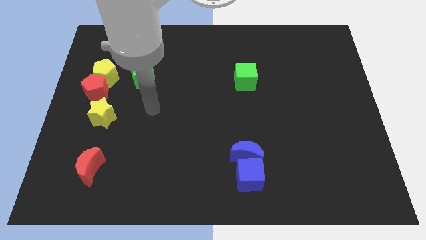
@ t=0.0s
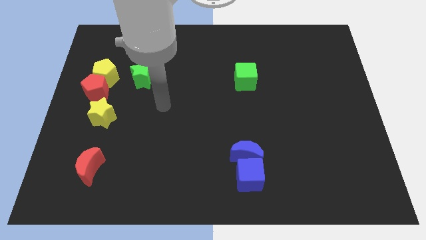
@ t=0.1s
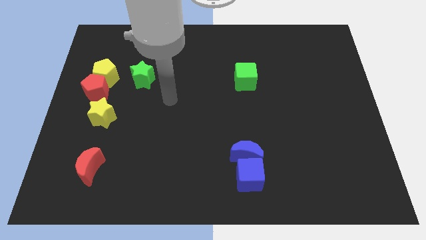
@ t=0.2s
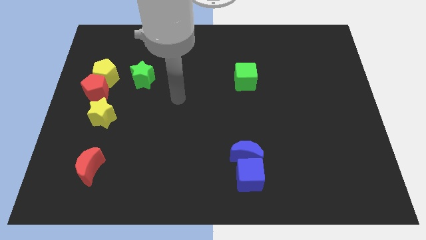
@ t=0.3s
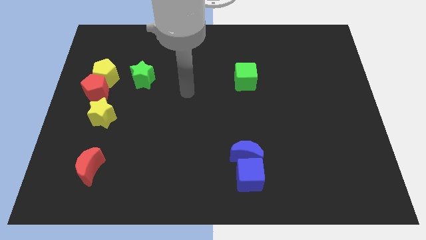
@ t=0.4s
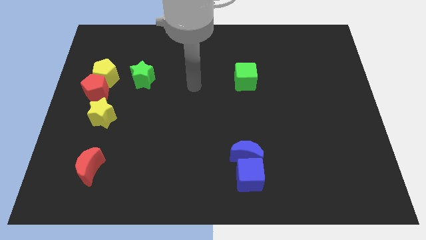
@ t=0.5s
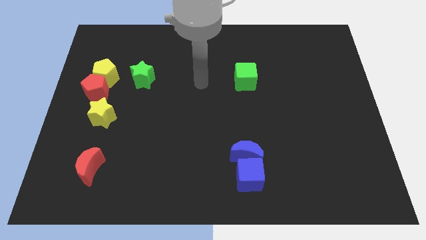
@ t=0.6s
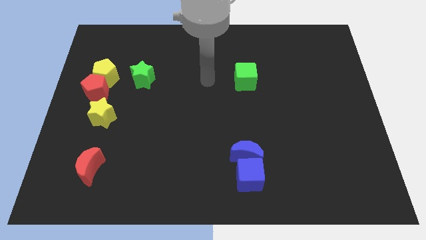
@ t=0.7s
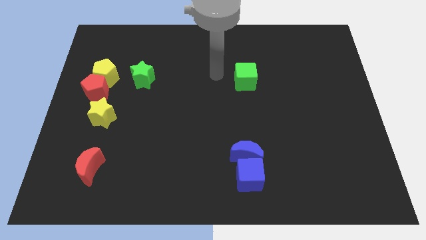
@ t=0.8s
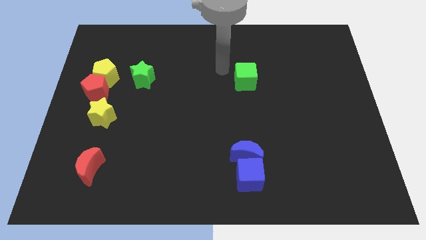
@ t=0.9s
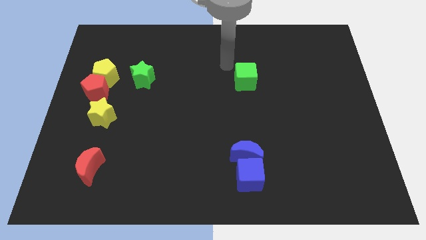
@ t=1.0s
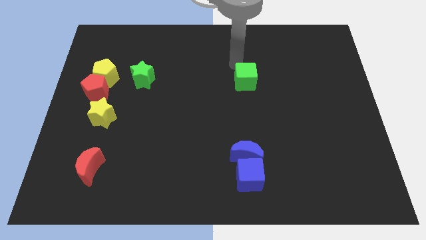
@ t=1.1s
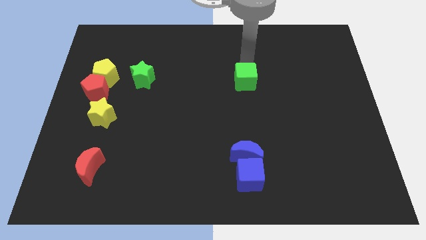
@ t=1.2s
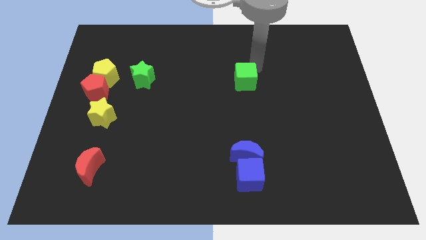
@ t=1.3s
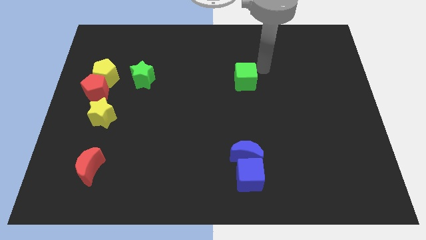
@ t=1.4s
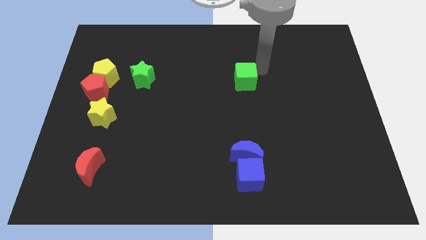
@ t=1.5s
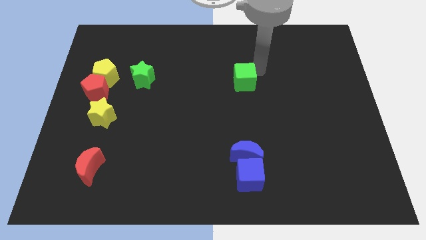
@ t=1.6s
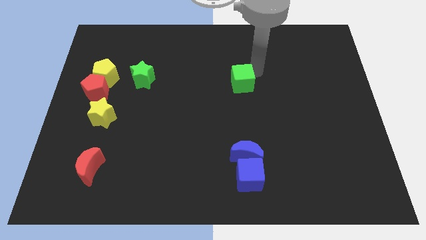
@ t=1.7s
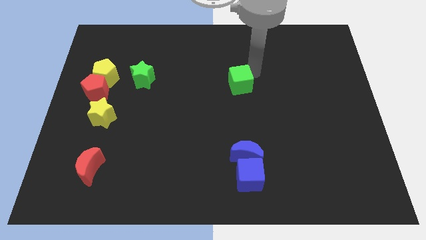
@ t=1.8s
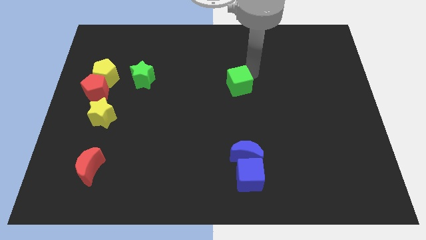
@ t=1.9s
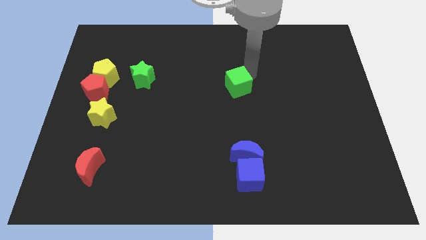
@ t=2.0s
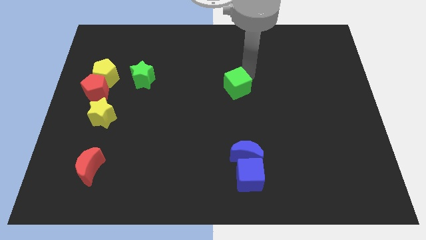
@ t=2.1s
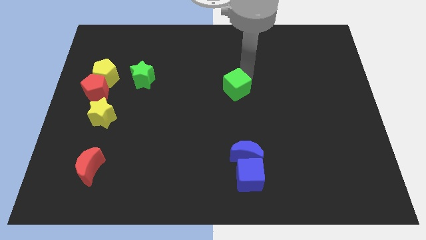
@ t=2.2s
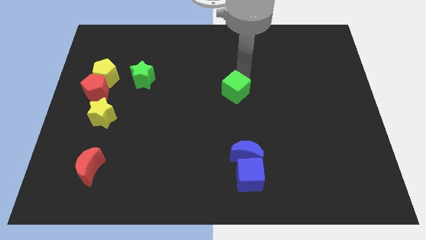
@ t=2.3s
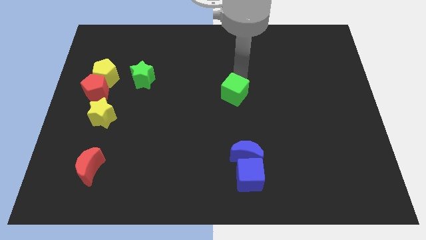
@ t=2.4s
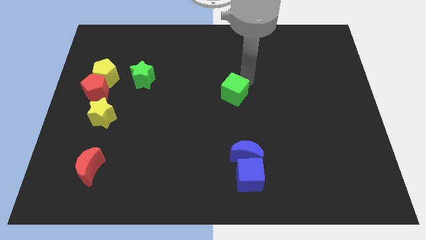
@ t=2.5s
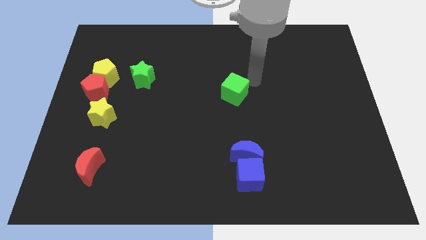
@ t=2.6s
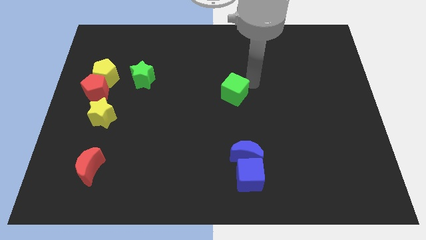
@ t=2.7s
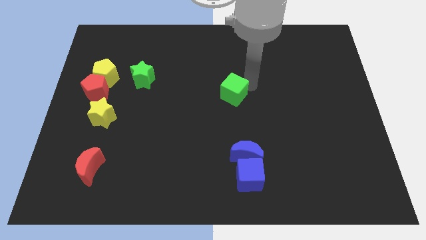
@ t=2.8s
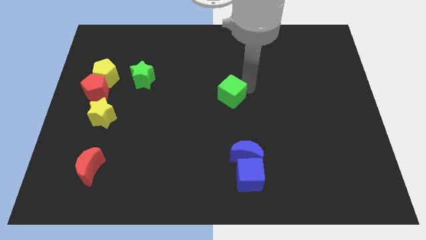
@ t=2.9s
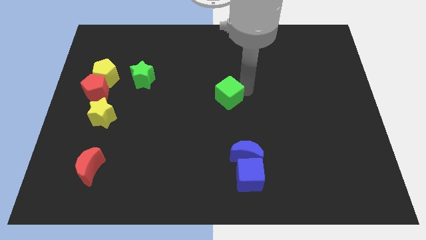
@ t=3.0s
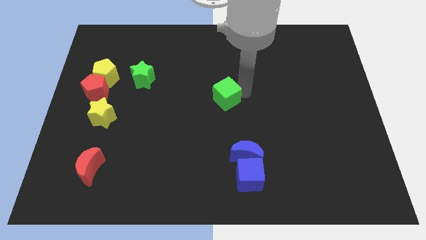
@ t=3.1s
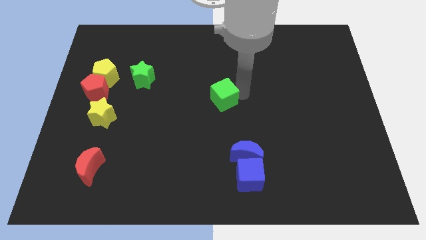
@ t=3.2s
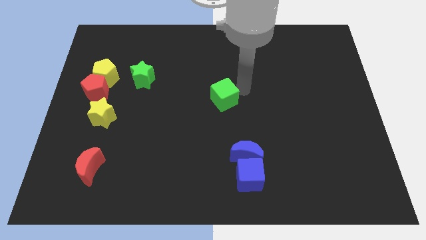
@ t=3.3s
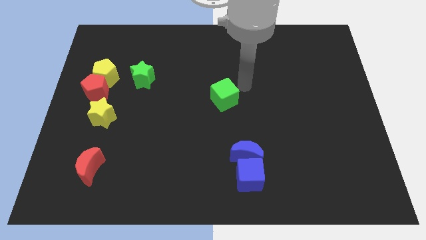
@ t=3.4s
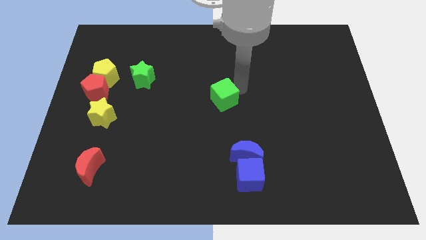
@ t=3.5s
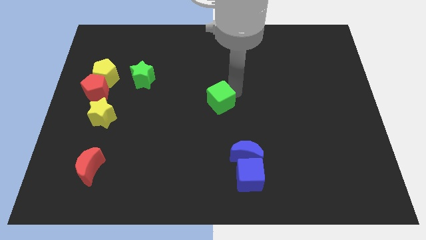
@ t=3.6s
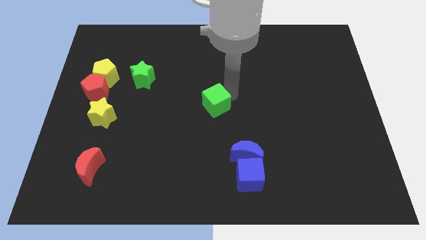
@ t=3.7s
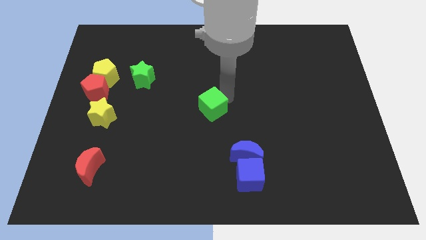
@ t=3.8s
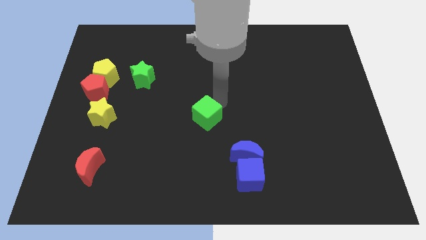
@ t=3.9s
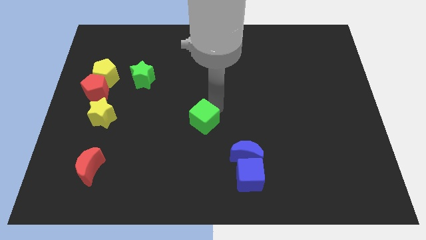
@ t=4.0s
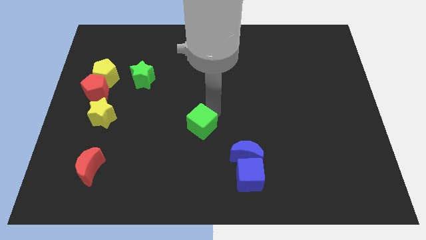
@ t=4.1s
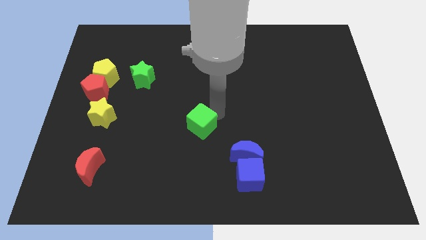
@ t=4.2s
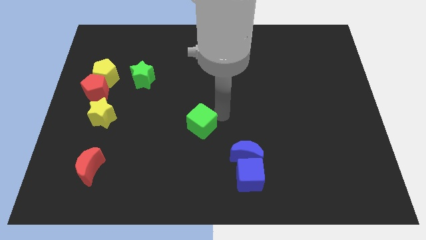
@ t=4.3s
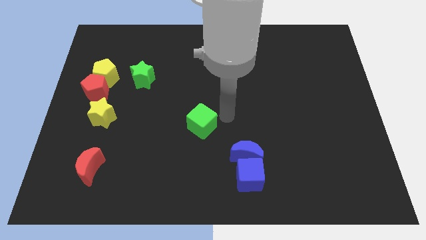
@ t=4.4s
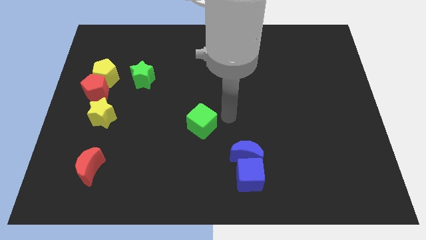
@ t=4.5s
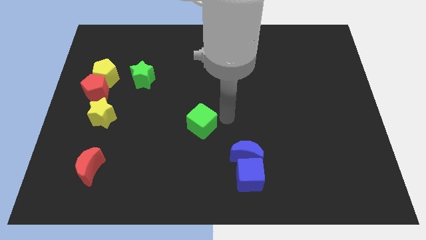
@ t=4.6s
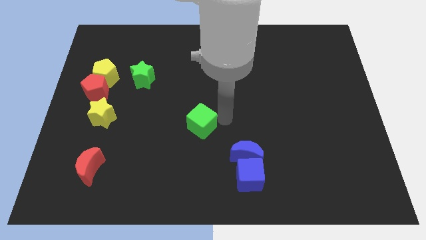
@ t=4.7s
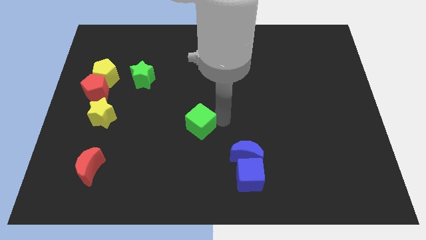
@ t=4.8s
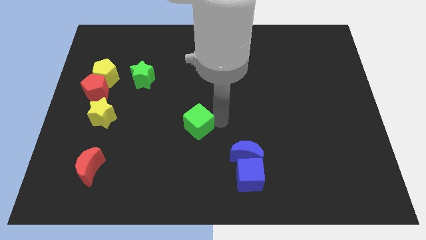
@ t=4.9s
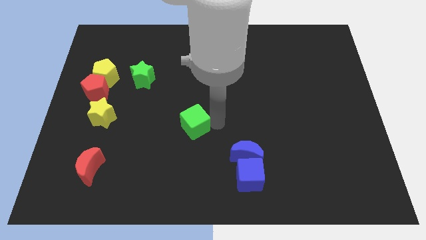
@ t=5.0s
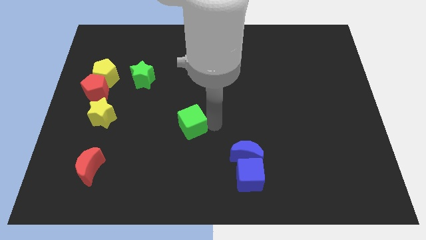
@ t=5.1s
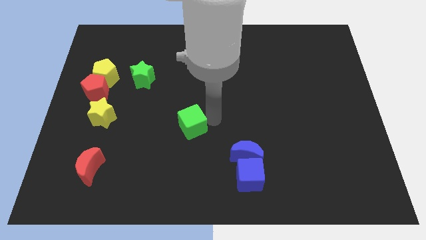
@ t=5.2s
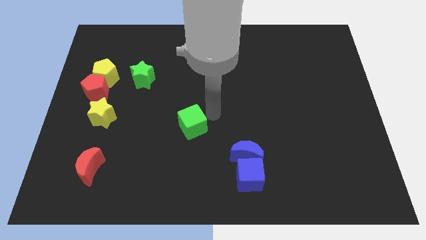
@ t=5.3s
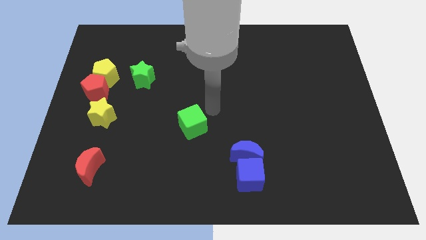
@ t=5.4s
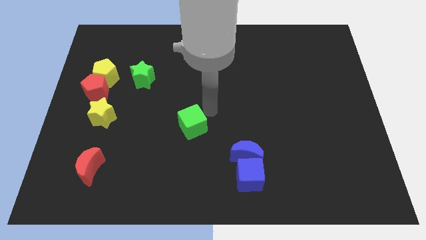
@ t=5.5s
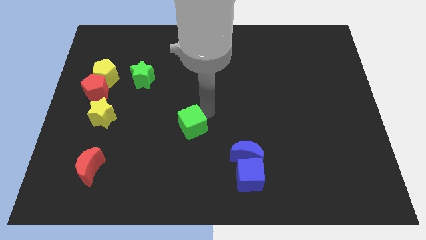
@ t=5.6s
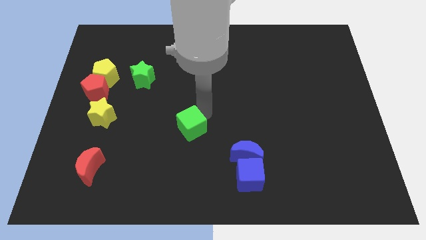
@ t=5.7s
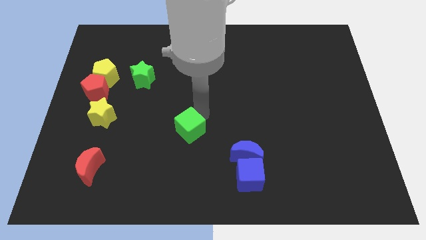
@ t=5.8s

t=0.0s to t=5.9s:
push the green cube downwards and then left

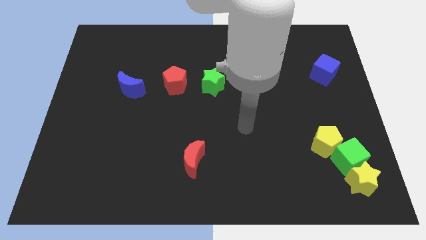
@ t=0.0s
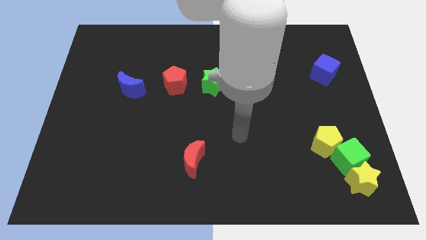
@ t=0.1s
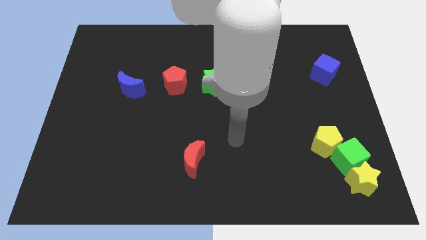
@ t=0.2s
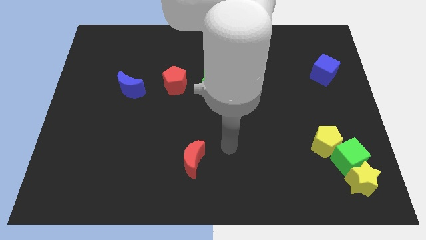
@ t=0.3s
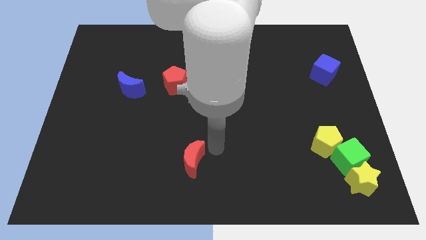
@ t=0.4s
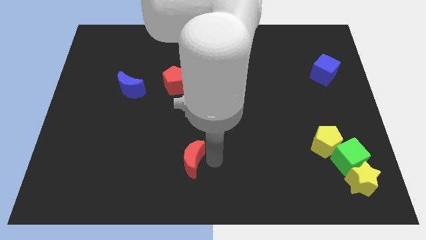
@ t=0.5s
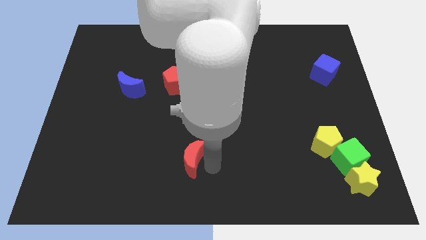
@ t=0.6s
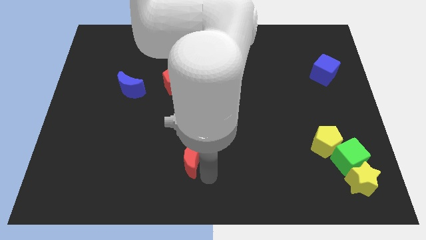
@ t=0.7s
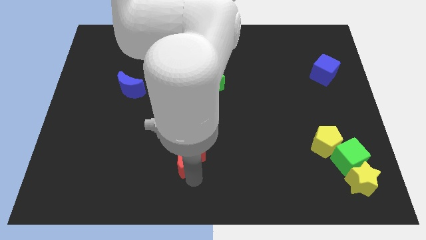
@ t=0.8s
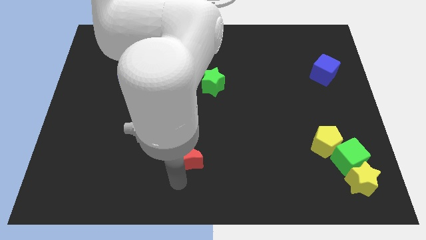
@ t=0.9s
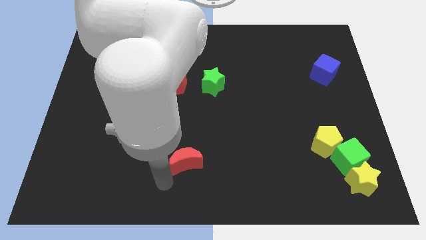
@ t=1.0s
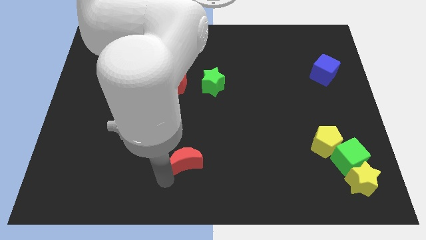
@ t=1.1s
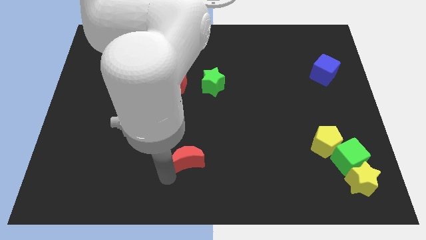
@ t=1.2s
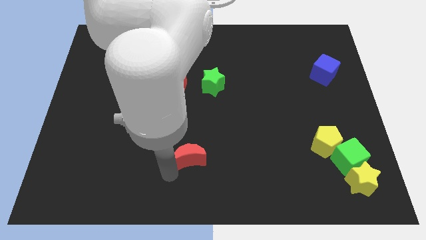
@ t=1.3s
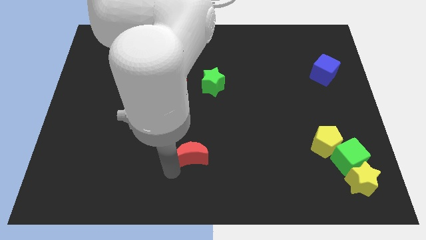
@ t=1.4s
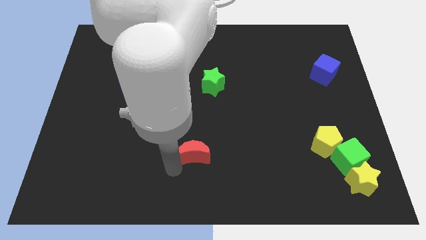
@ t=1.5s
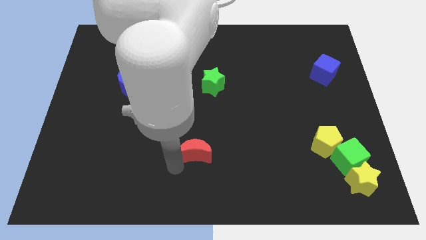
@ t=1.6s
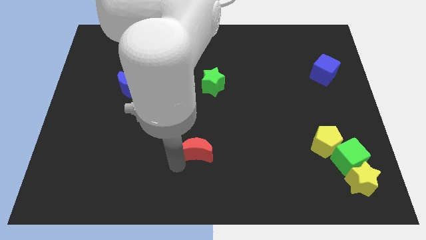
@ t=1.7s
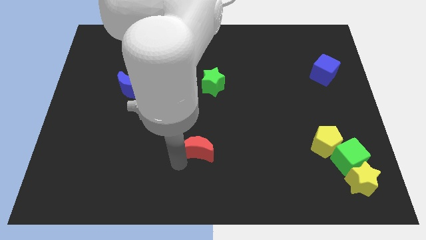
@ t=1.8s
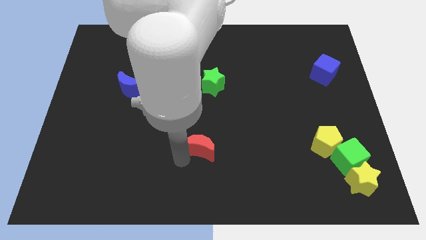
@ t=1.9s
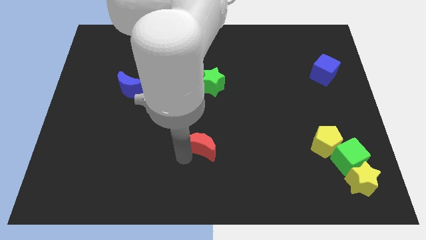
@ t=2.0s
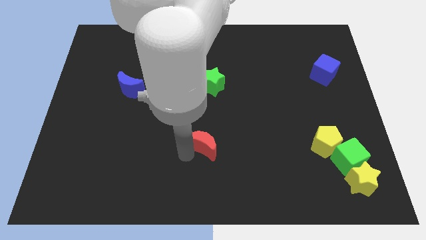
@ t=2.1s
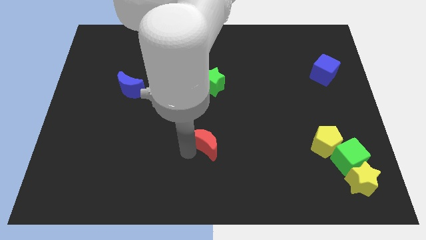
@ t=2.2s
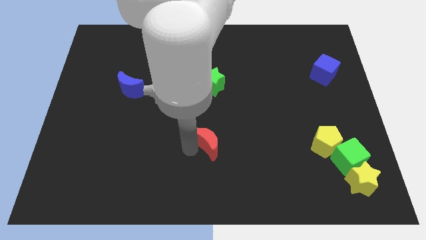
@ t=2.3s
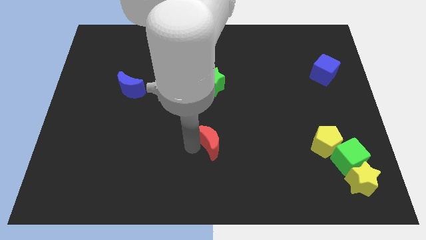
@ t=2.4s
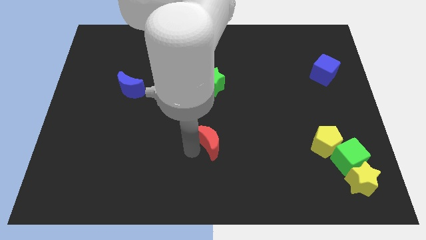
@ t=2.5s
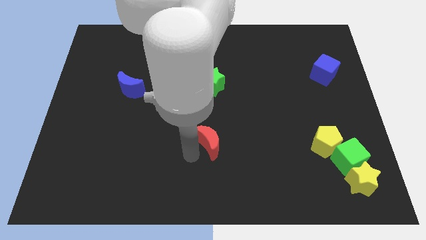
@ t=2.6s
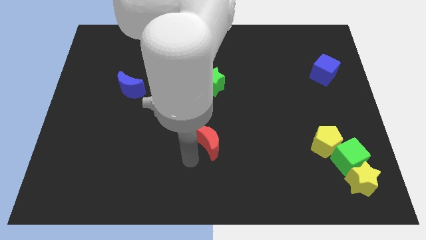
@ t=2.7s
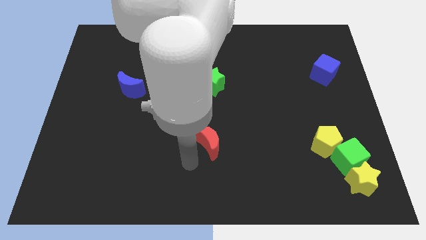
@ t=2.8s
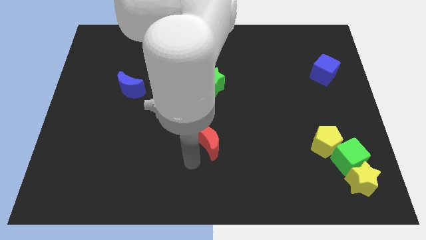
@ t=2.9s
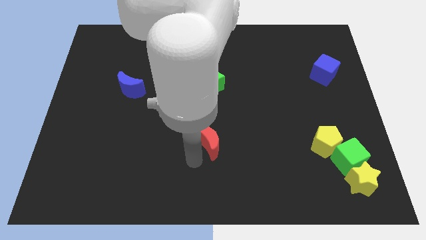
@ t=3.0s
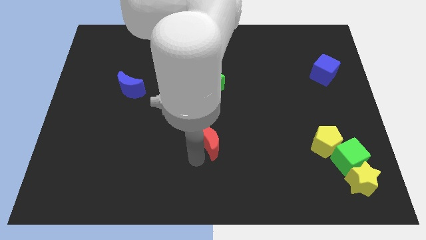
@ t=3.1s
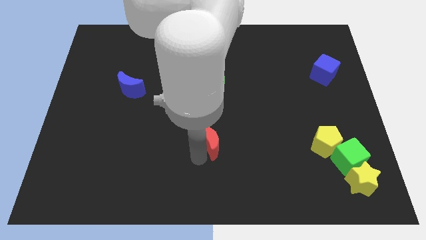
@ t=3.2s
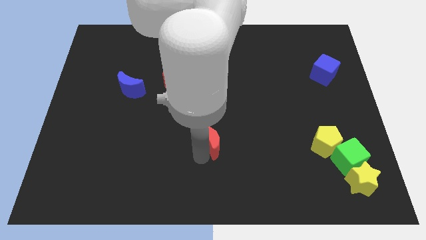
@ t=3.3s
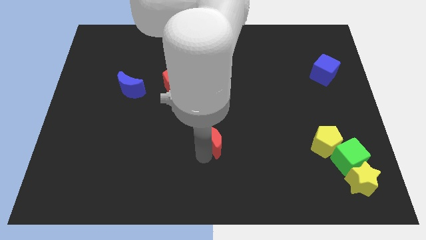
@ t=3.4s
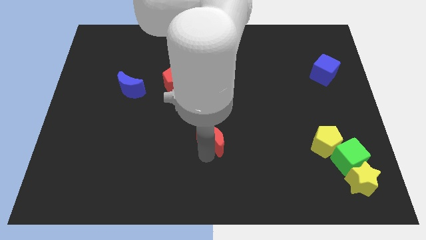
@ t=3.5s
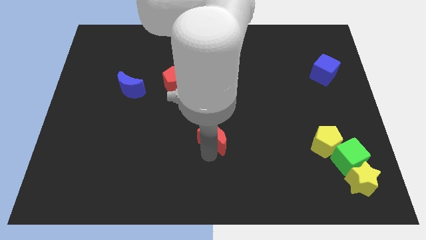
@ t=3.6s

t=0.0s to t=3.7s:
slide the red moon slightly diagonally upwards and to the right
